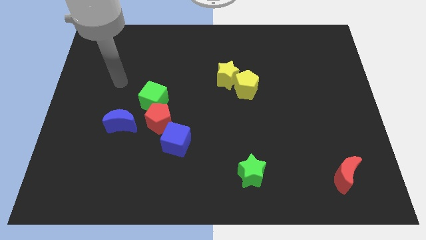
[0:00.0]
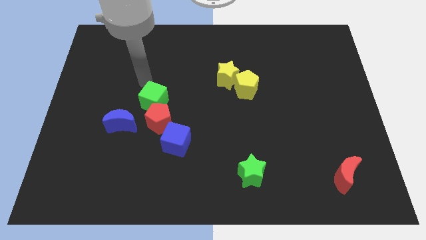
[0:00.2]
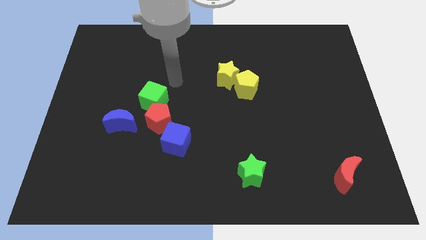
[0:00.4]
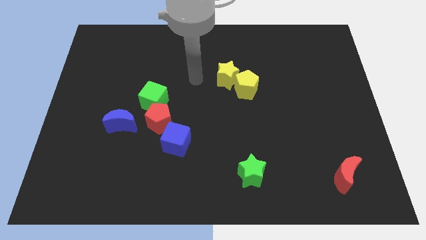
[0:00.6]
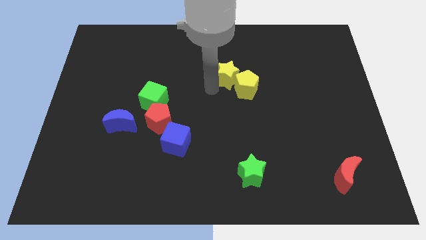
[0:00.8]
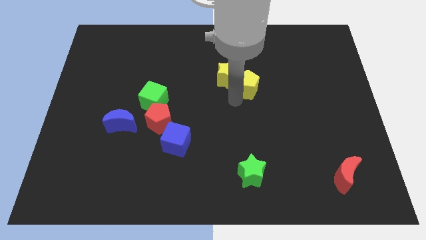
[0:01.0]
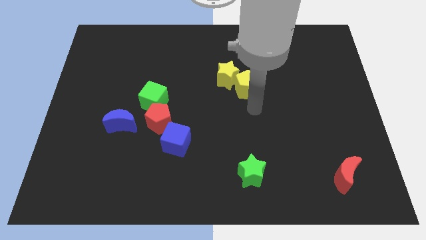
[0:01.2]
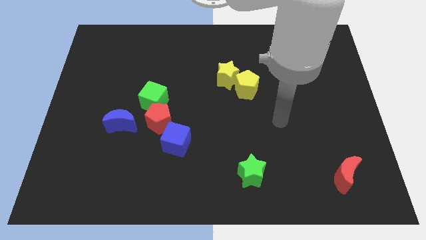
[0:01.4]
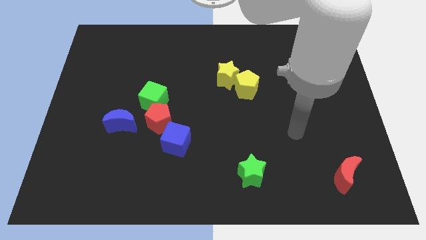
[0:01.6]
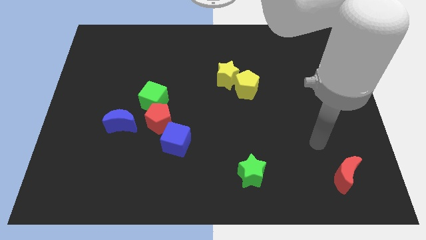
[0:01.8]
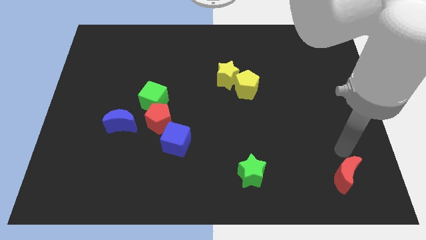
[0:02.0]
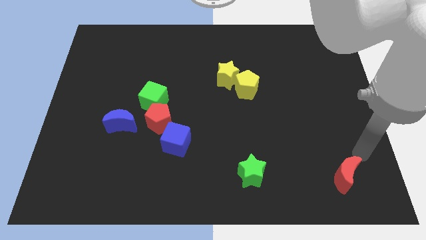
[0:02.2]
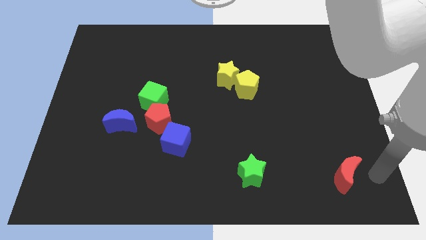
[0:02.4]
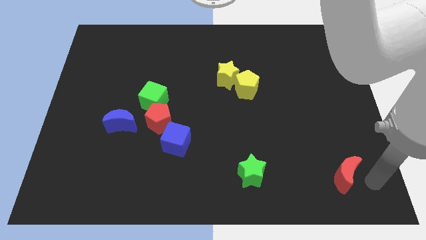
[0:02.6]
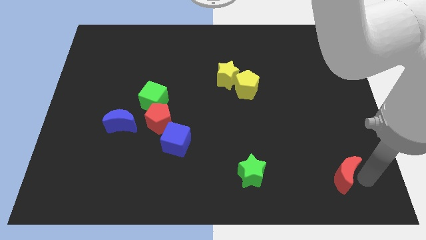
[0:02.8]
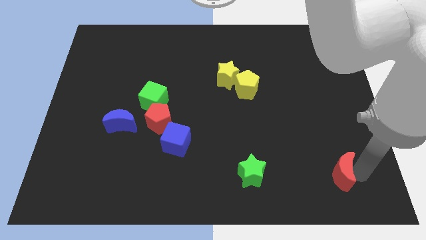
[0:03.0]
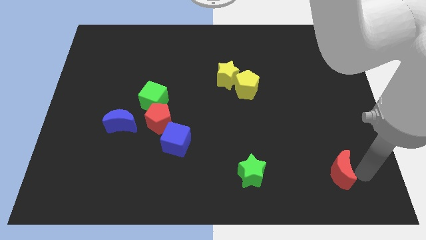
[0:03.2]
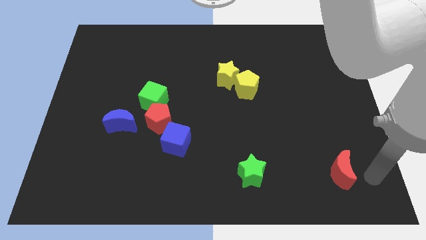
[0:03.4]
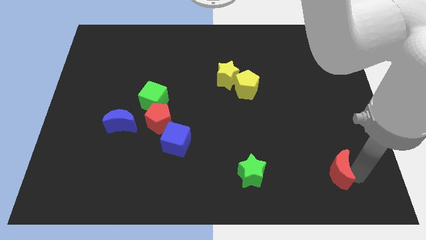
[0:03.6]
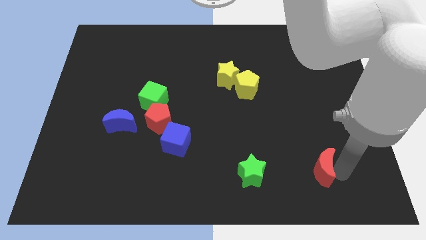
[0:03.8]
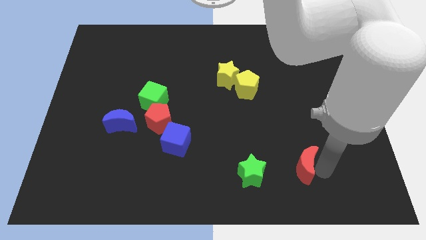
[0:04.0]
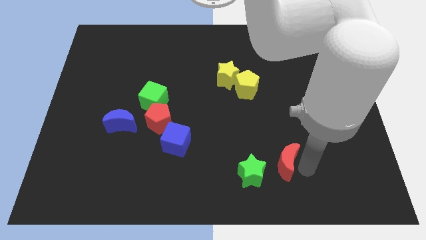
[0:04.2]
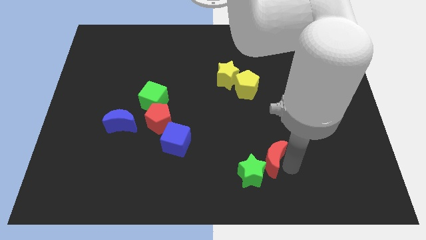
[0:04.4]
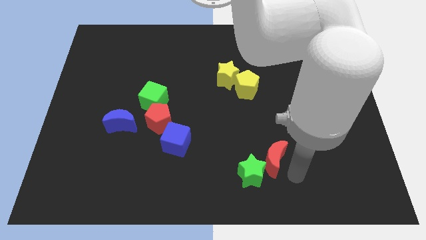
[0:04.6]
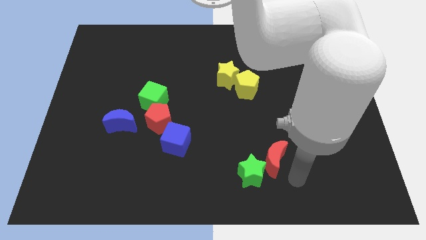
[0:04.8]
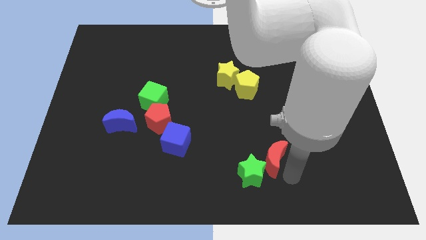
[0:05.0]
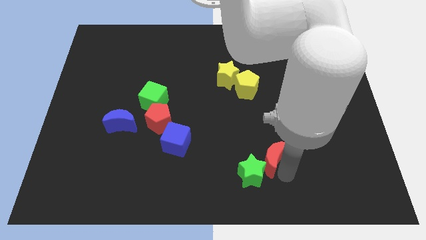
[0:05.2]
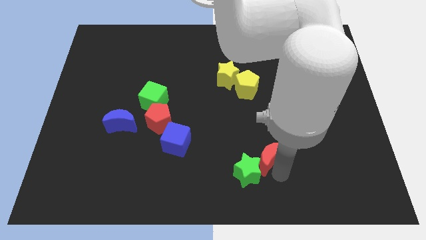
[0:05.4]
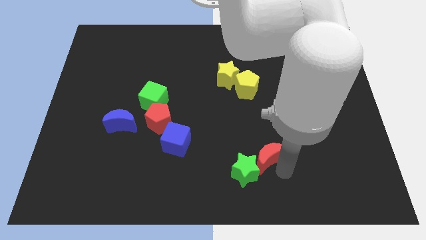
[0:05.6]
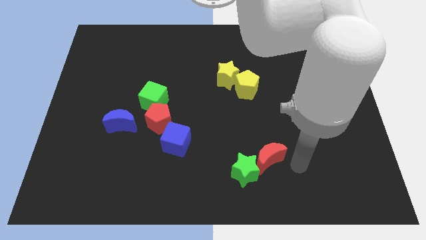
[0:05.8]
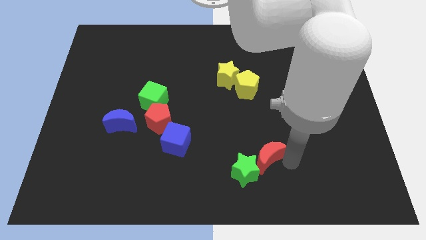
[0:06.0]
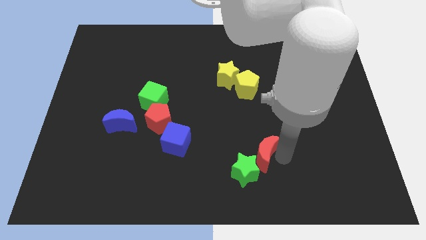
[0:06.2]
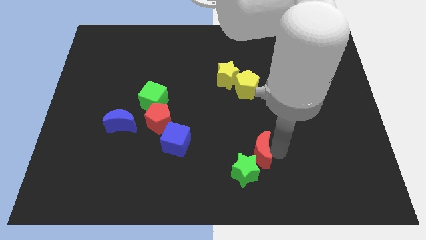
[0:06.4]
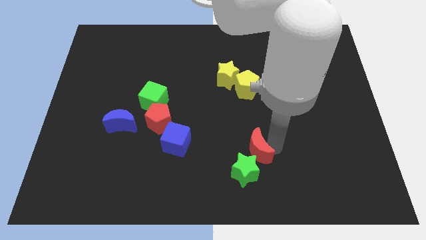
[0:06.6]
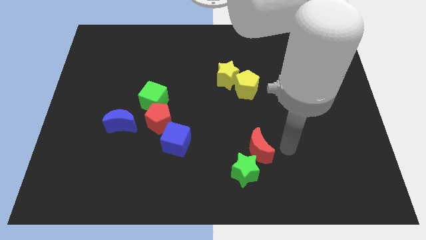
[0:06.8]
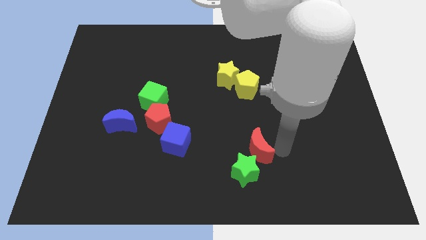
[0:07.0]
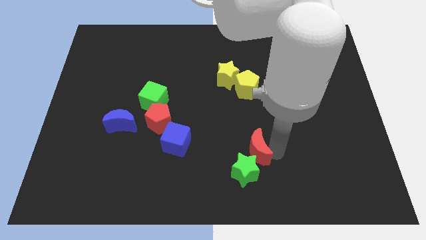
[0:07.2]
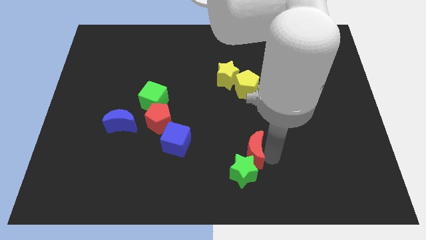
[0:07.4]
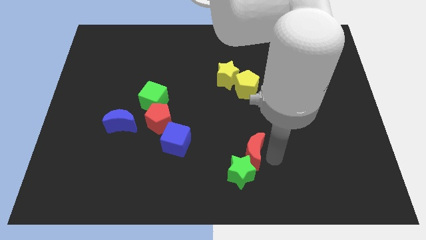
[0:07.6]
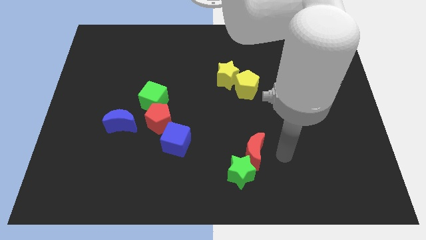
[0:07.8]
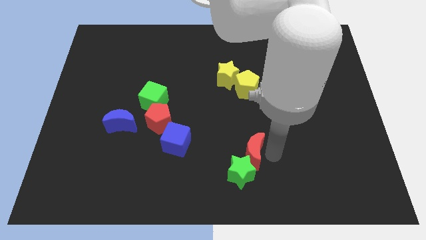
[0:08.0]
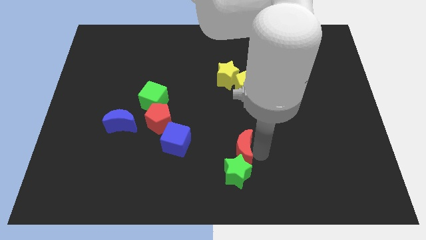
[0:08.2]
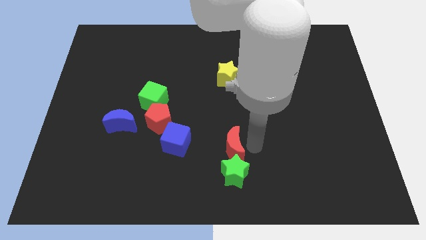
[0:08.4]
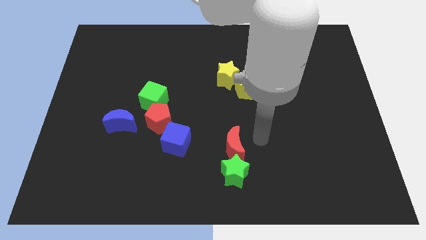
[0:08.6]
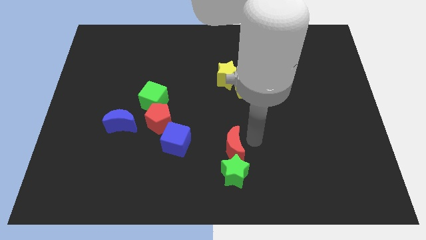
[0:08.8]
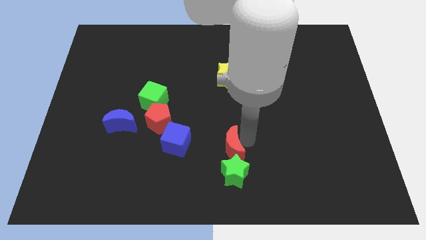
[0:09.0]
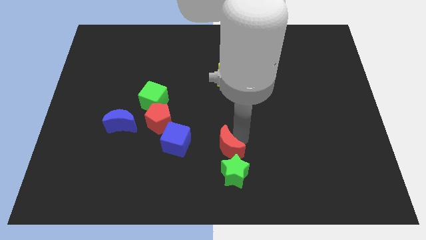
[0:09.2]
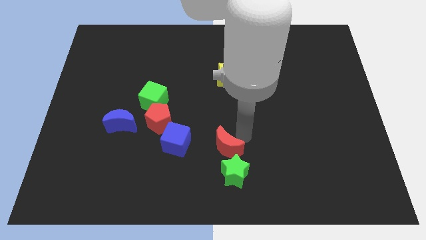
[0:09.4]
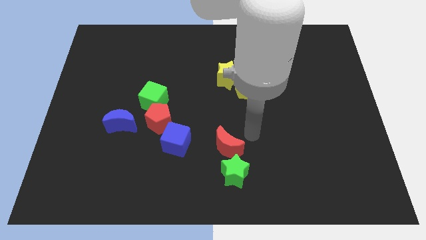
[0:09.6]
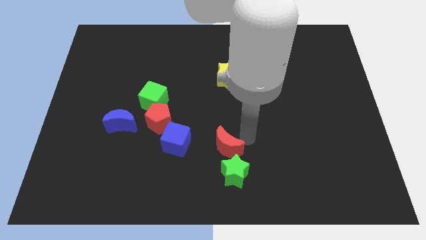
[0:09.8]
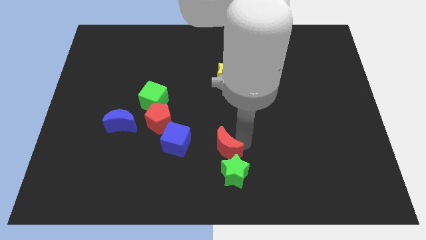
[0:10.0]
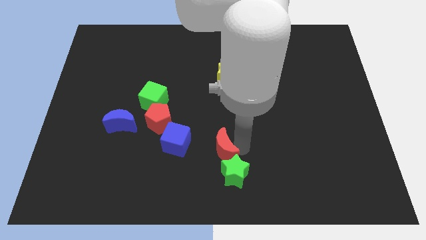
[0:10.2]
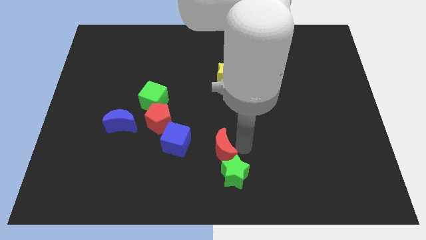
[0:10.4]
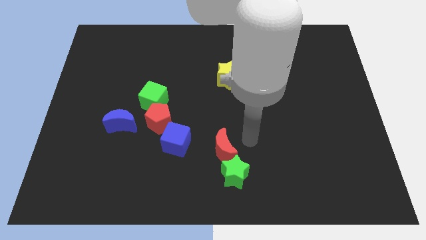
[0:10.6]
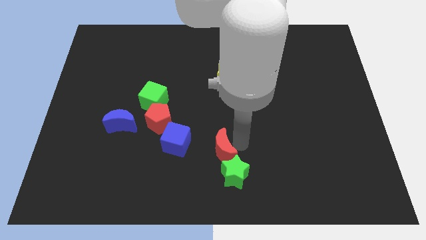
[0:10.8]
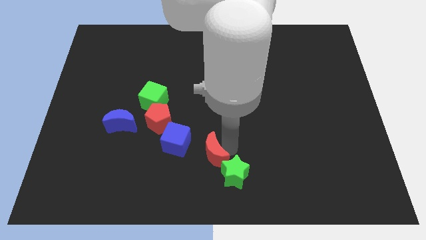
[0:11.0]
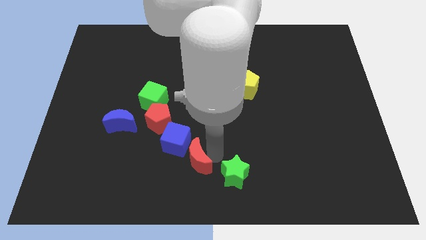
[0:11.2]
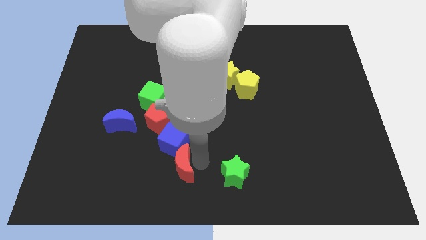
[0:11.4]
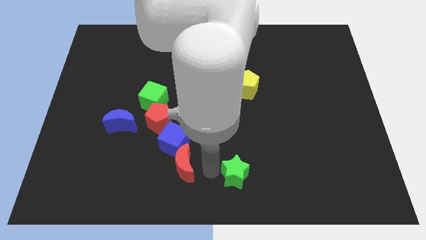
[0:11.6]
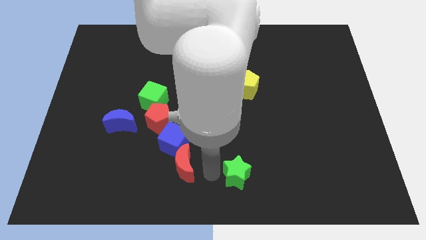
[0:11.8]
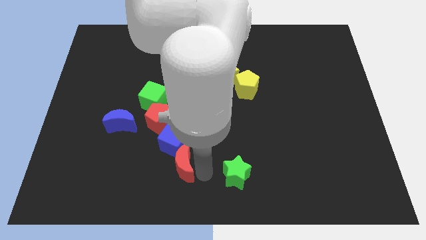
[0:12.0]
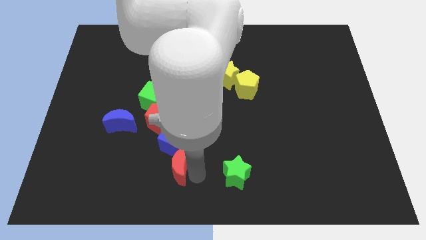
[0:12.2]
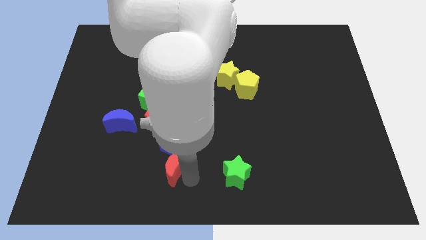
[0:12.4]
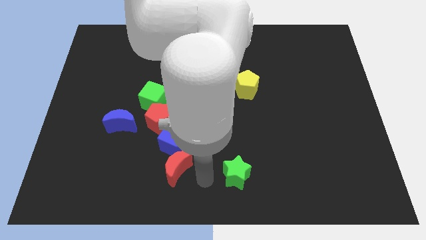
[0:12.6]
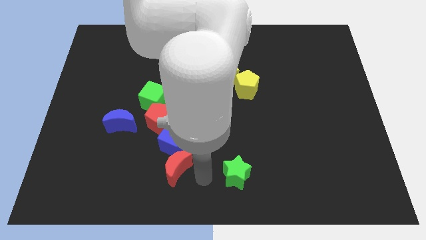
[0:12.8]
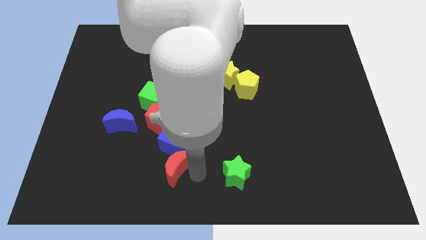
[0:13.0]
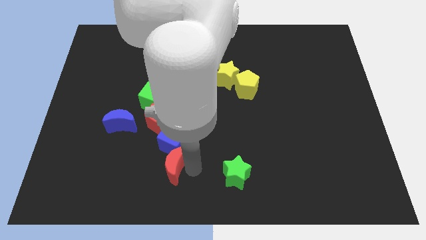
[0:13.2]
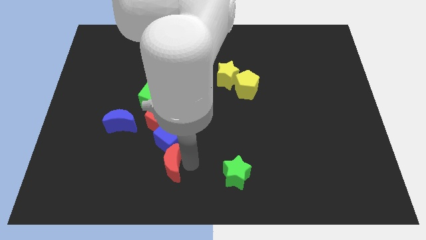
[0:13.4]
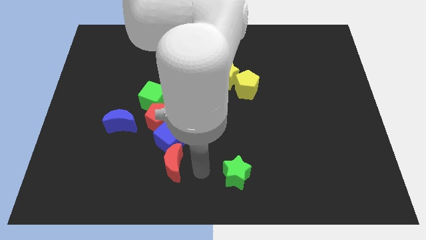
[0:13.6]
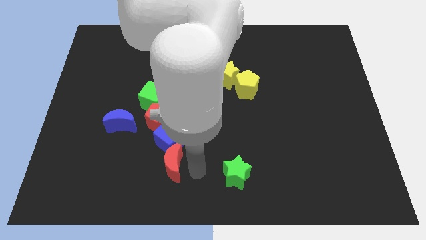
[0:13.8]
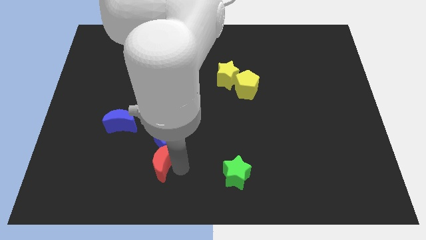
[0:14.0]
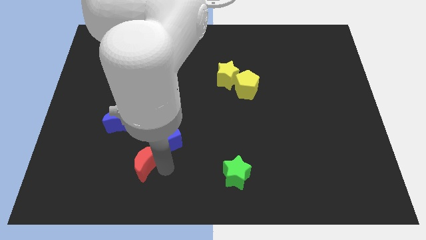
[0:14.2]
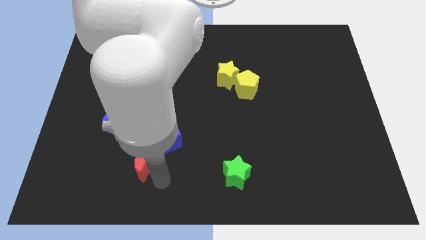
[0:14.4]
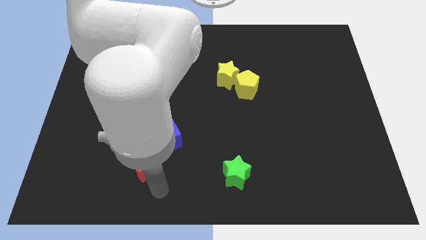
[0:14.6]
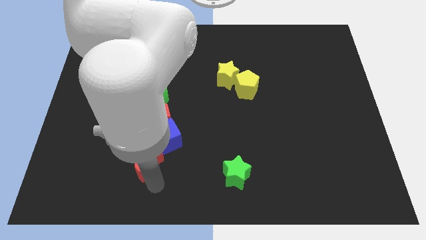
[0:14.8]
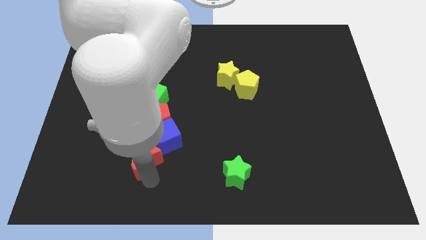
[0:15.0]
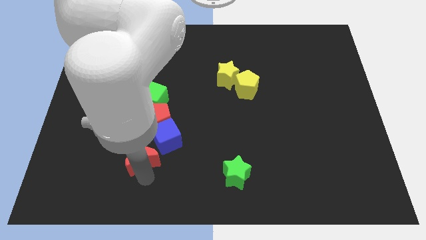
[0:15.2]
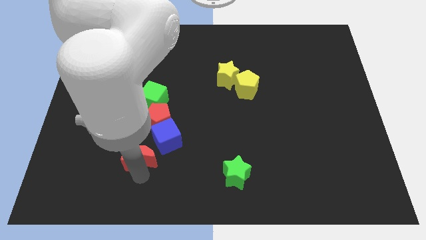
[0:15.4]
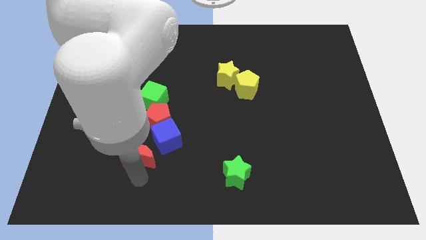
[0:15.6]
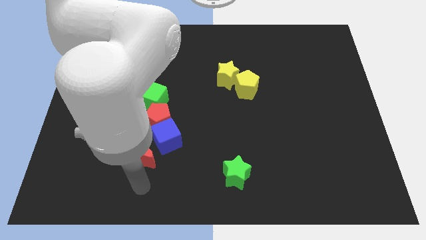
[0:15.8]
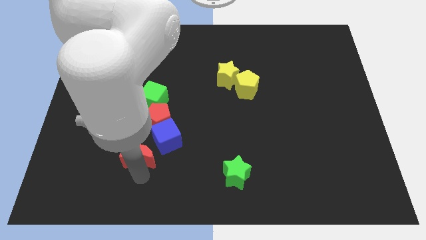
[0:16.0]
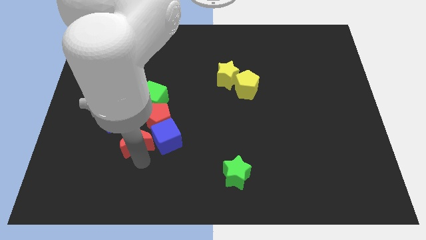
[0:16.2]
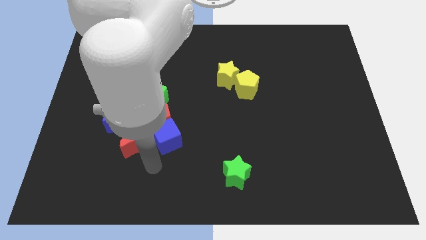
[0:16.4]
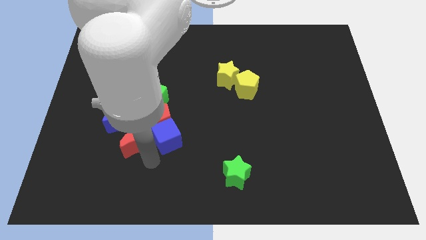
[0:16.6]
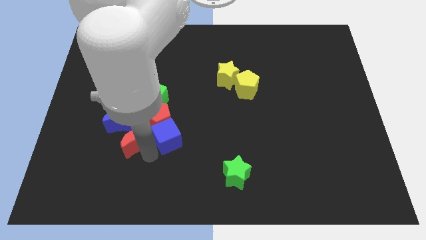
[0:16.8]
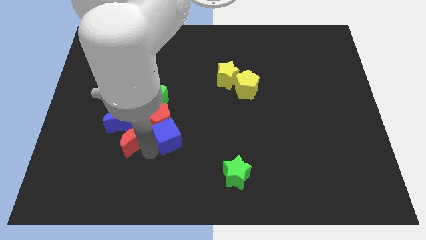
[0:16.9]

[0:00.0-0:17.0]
slide the red moon next to the blue moon
